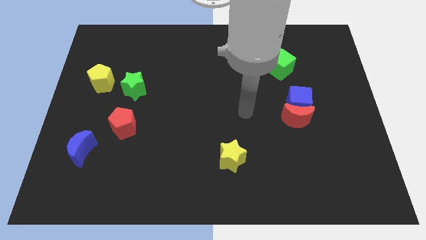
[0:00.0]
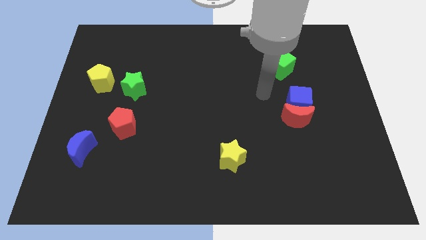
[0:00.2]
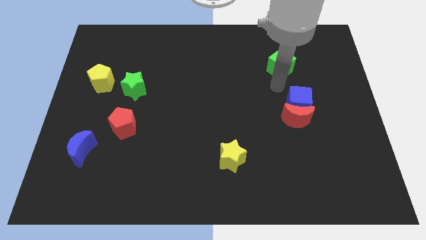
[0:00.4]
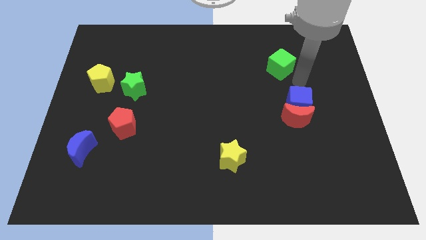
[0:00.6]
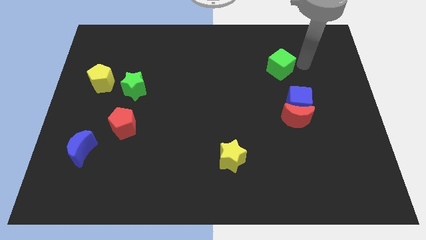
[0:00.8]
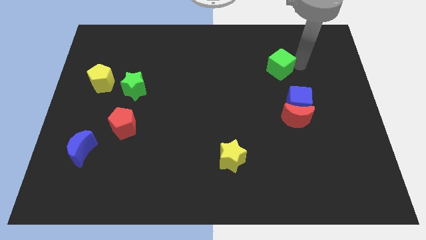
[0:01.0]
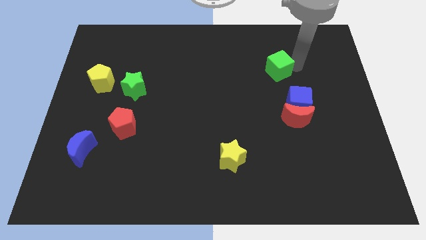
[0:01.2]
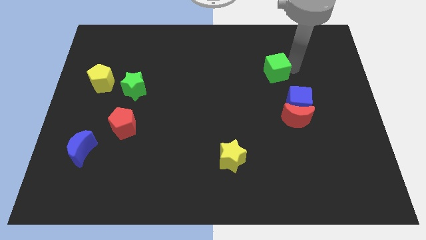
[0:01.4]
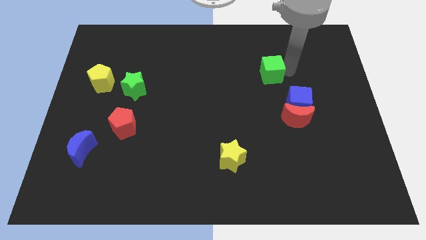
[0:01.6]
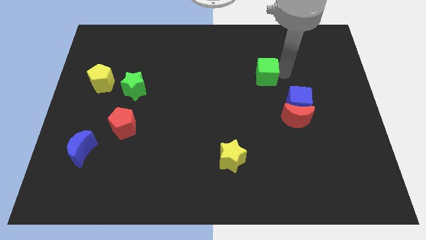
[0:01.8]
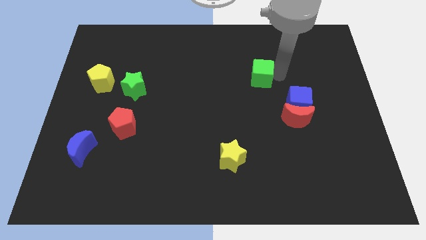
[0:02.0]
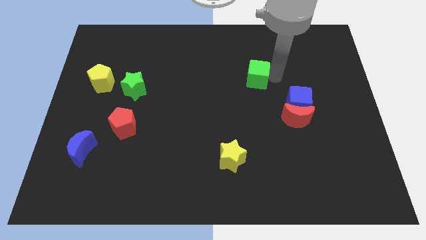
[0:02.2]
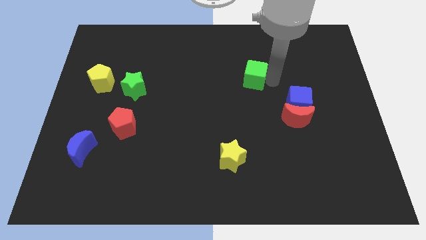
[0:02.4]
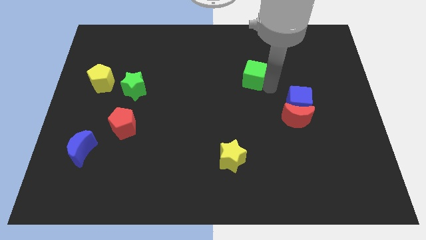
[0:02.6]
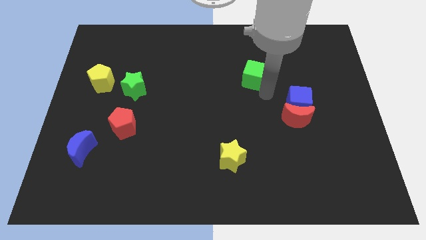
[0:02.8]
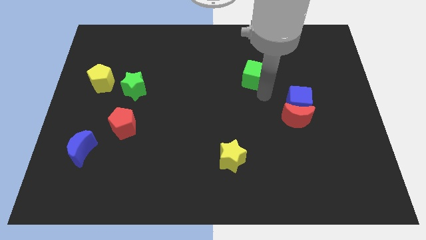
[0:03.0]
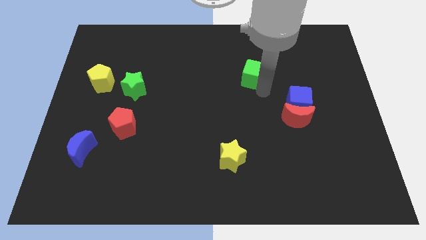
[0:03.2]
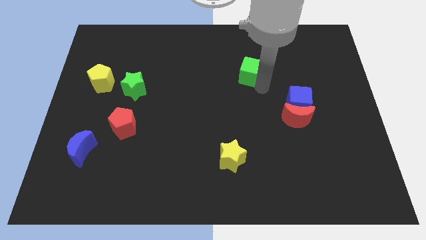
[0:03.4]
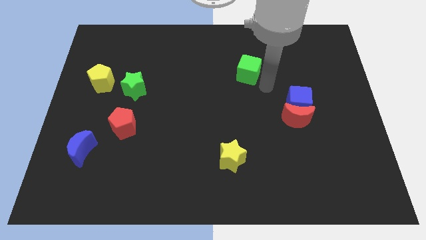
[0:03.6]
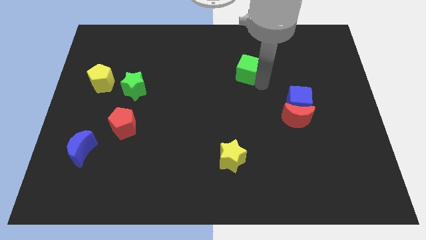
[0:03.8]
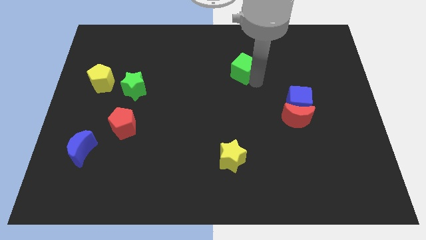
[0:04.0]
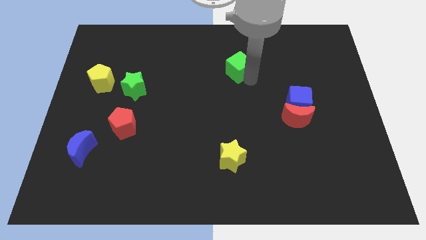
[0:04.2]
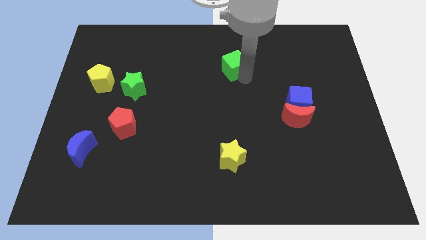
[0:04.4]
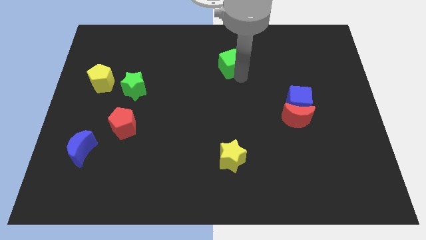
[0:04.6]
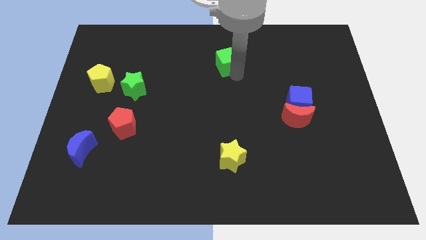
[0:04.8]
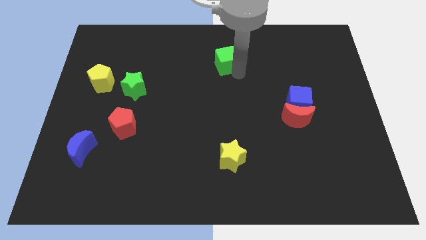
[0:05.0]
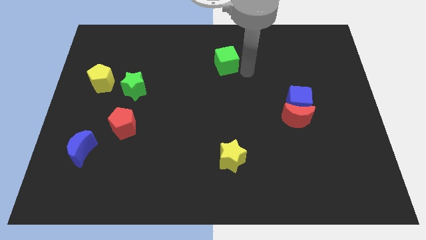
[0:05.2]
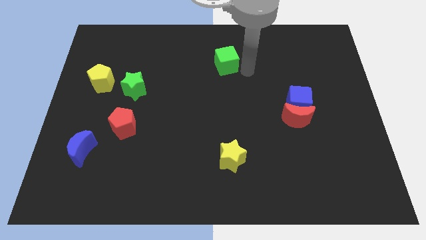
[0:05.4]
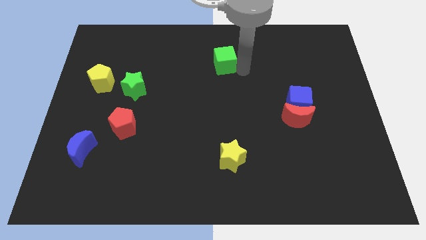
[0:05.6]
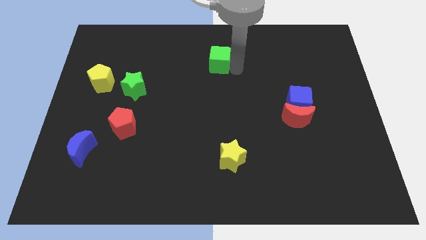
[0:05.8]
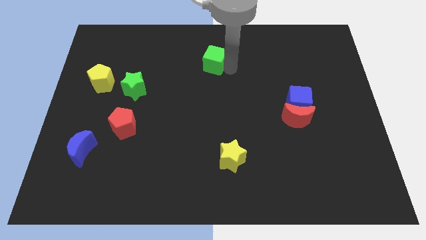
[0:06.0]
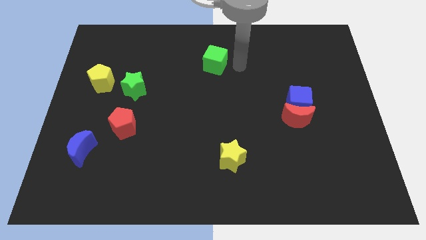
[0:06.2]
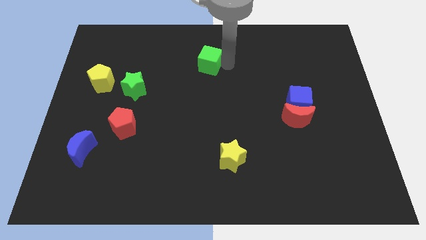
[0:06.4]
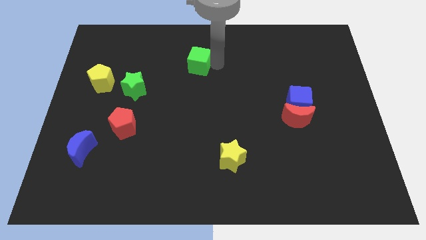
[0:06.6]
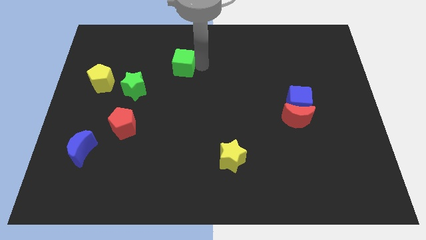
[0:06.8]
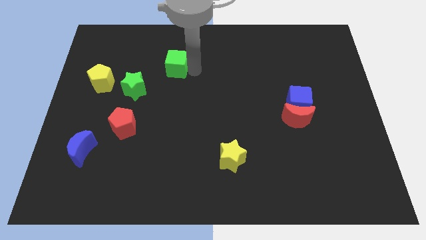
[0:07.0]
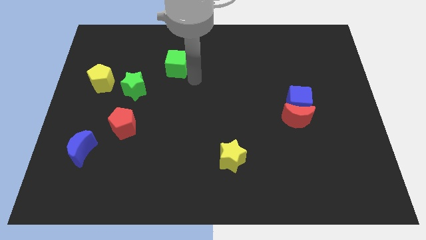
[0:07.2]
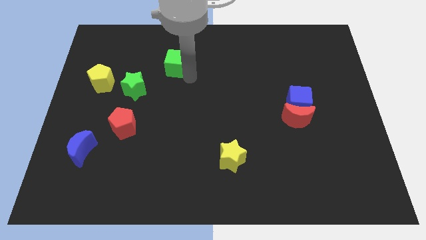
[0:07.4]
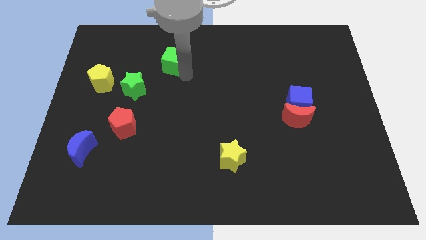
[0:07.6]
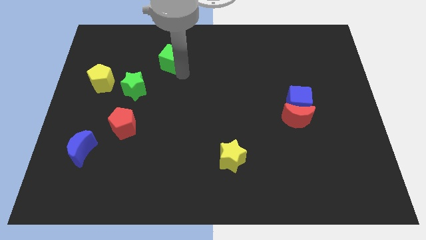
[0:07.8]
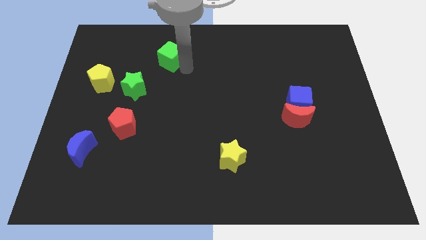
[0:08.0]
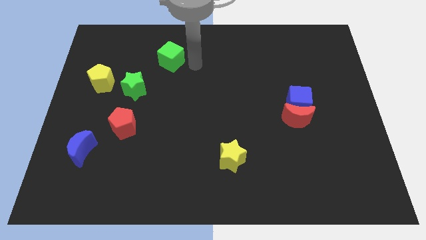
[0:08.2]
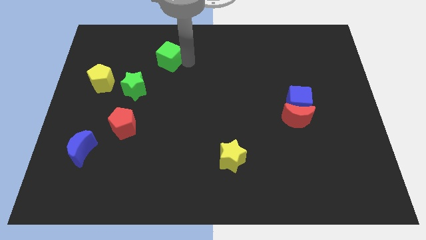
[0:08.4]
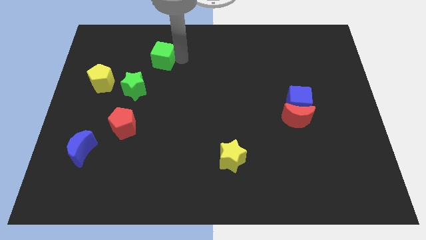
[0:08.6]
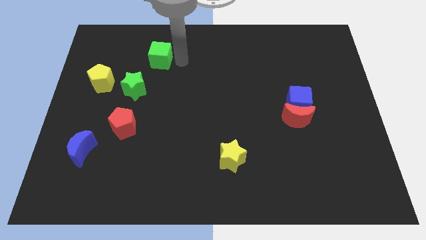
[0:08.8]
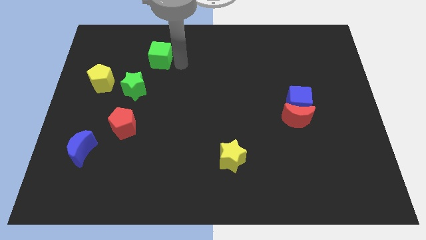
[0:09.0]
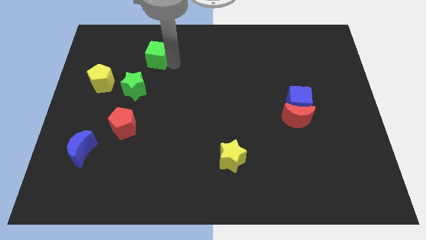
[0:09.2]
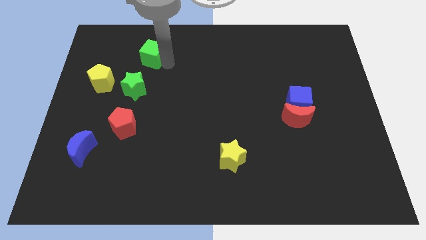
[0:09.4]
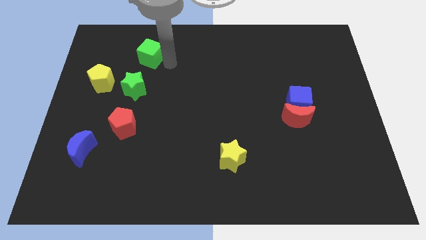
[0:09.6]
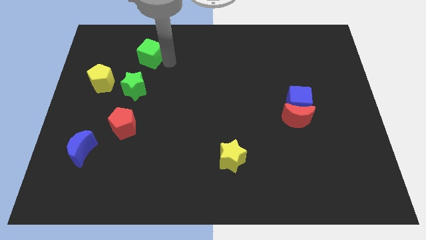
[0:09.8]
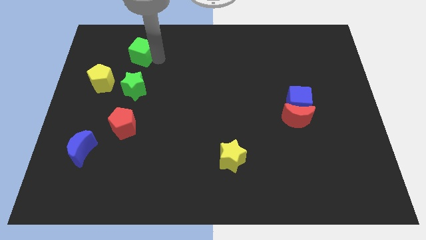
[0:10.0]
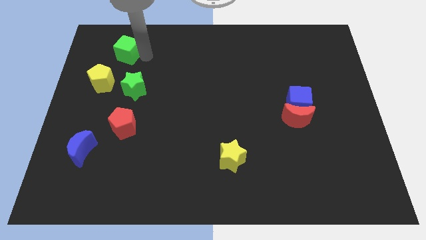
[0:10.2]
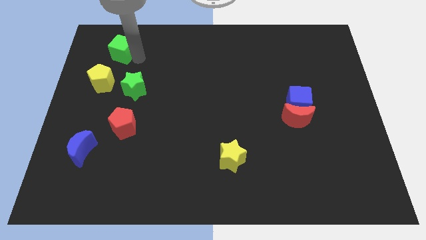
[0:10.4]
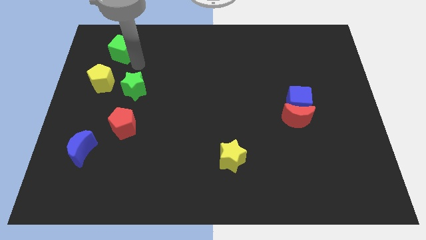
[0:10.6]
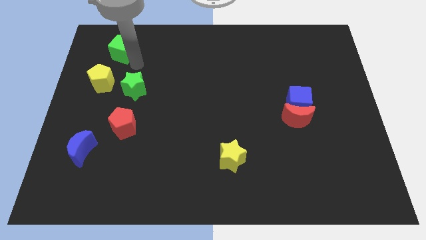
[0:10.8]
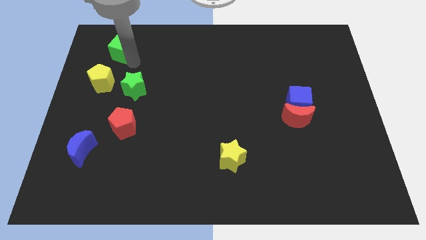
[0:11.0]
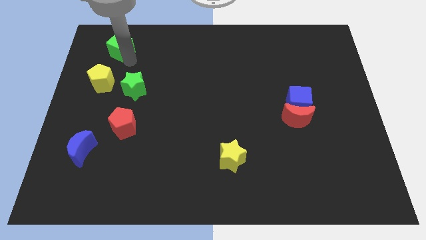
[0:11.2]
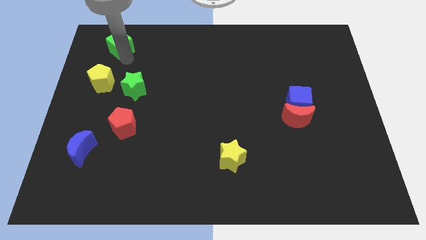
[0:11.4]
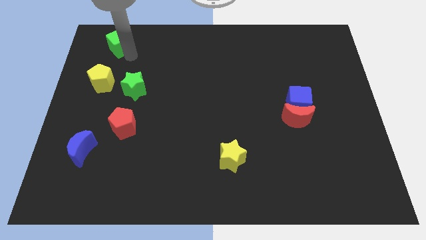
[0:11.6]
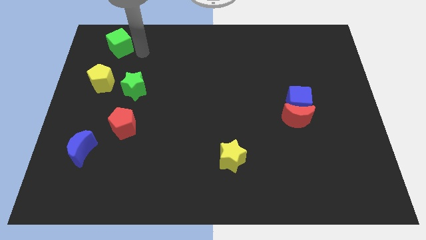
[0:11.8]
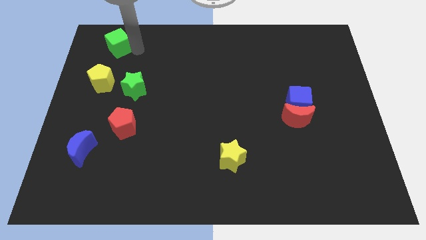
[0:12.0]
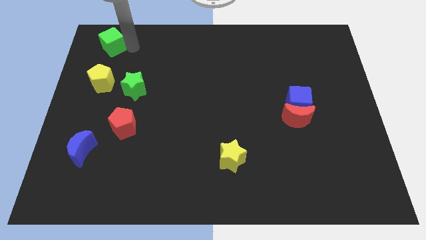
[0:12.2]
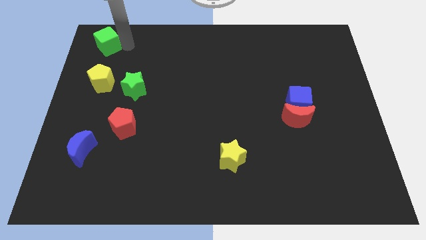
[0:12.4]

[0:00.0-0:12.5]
slide the green cube to the upper left corner
